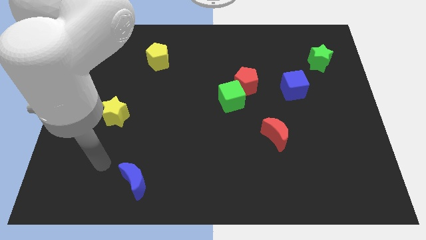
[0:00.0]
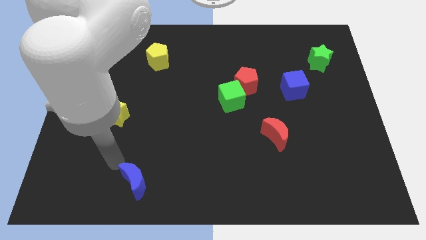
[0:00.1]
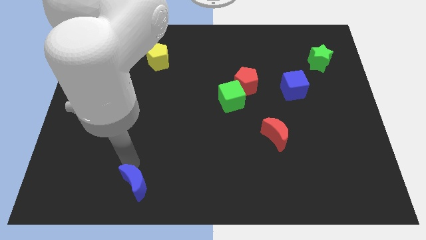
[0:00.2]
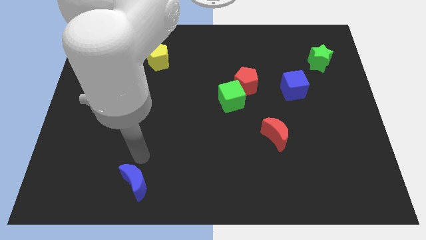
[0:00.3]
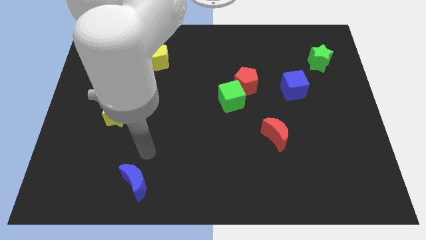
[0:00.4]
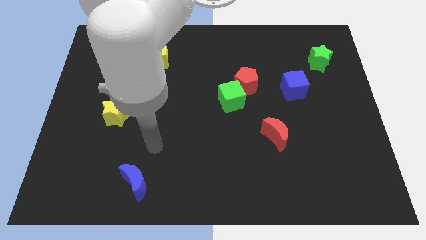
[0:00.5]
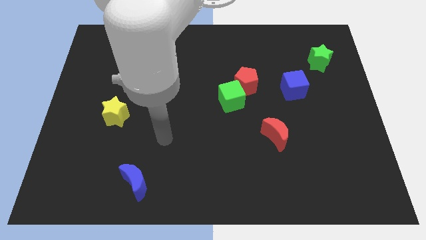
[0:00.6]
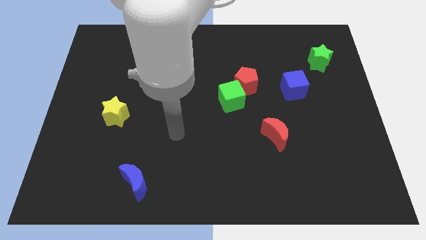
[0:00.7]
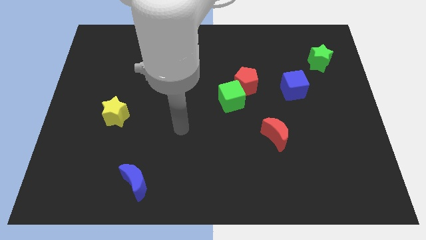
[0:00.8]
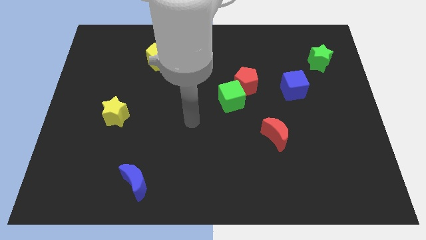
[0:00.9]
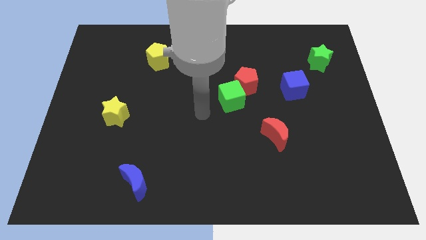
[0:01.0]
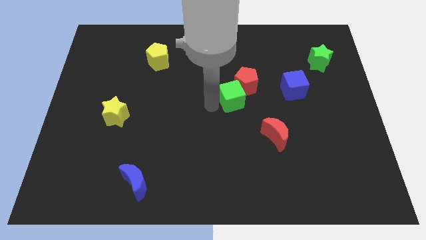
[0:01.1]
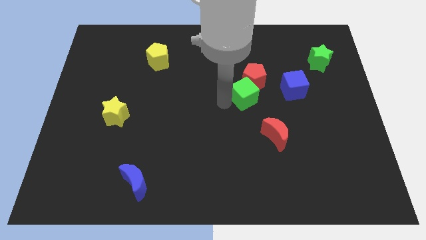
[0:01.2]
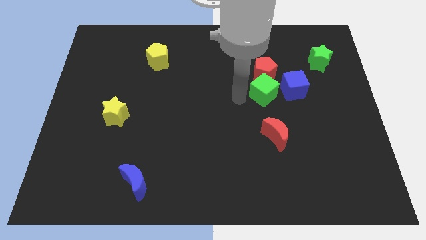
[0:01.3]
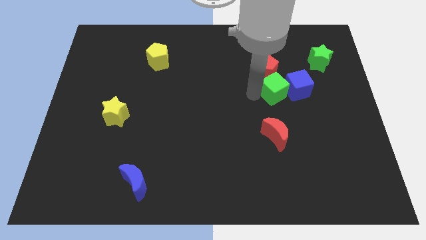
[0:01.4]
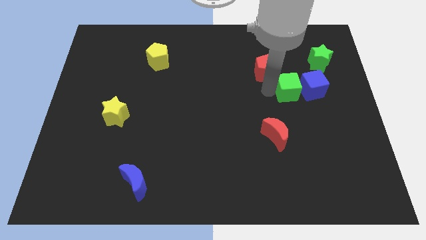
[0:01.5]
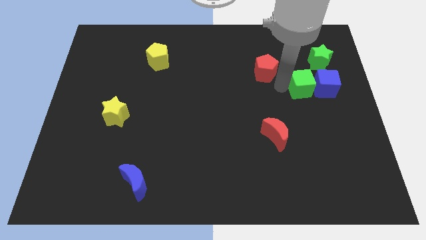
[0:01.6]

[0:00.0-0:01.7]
move the red pentagon away from the green cube

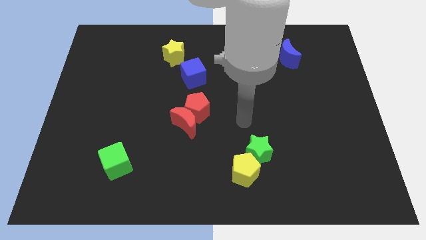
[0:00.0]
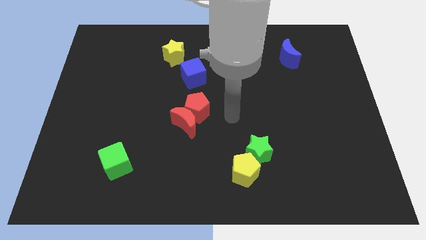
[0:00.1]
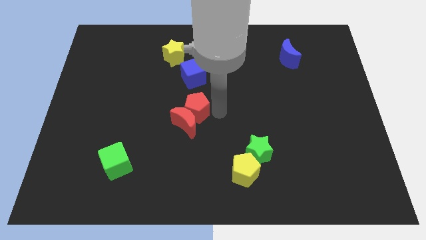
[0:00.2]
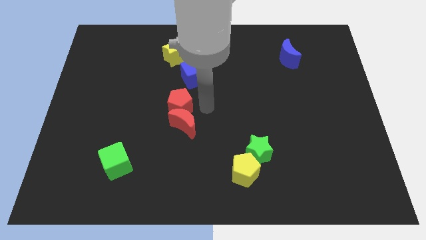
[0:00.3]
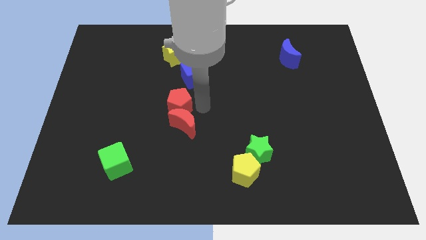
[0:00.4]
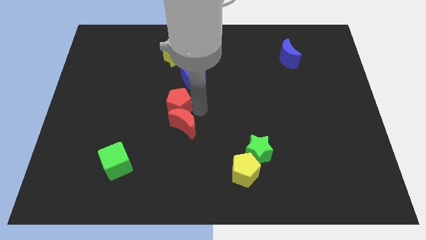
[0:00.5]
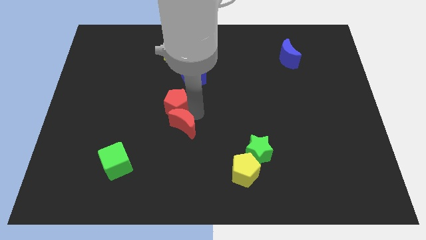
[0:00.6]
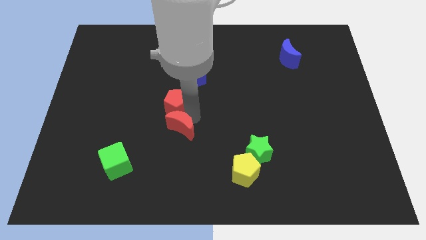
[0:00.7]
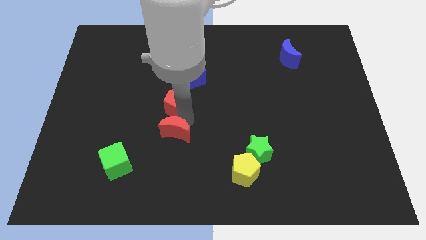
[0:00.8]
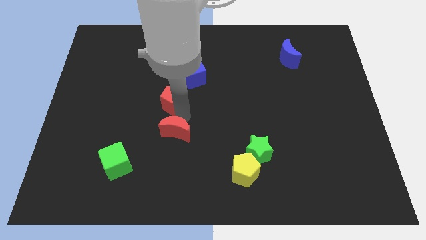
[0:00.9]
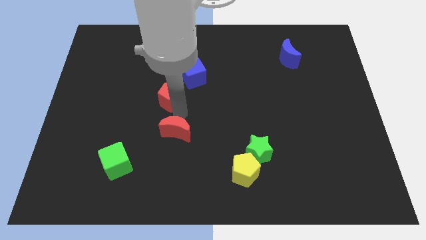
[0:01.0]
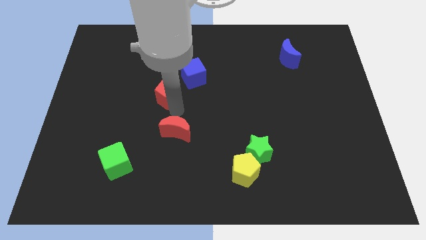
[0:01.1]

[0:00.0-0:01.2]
move the red moon away from the red pentagon

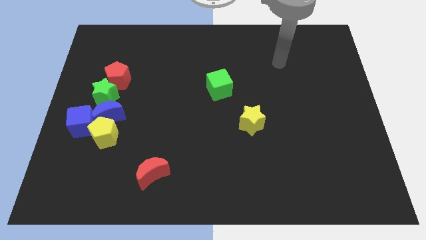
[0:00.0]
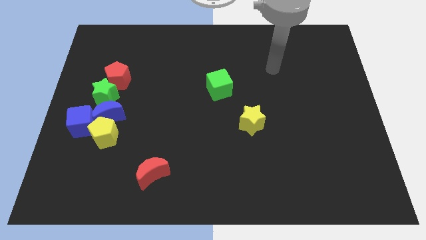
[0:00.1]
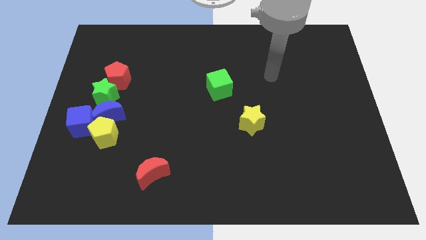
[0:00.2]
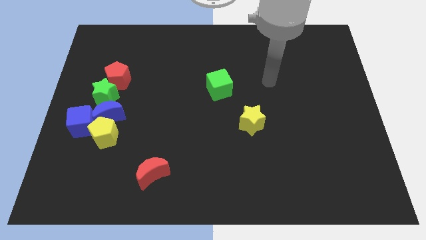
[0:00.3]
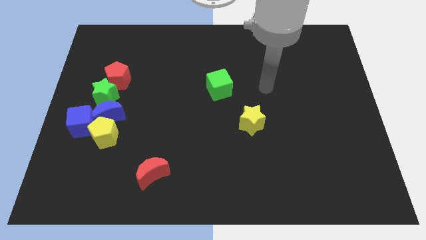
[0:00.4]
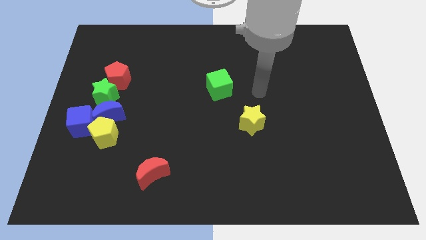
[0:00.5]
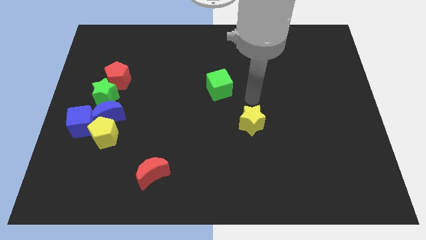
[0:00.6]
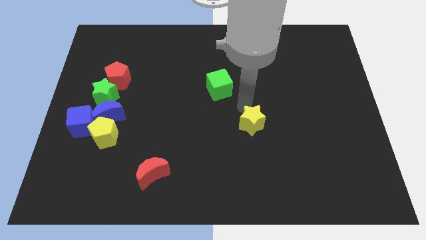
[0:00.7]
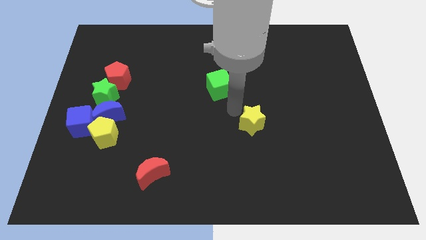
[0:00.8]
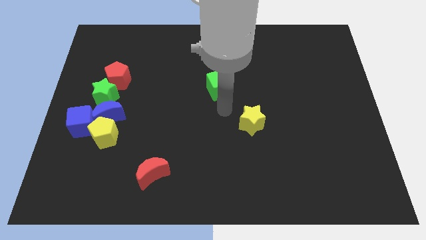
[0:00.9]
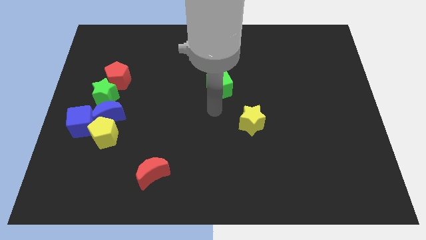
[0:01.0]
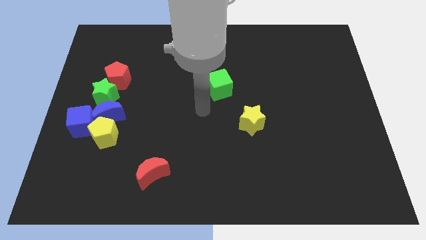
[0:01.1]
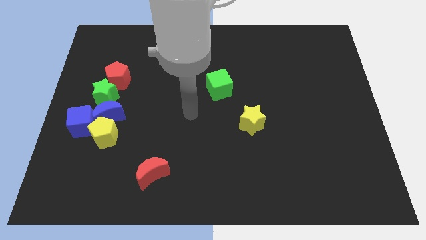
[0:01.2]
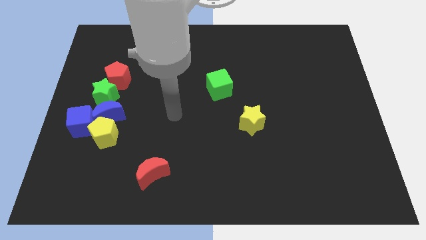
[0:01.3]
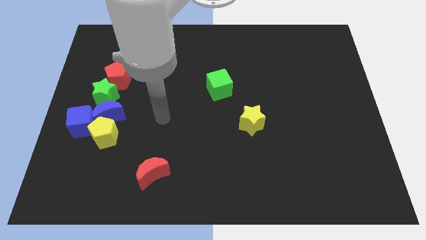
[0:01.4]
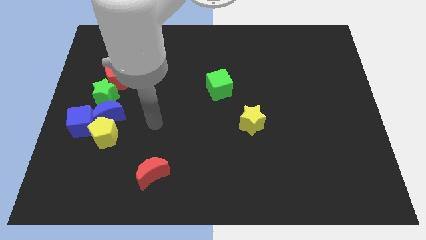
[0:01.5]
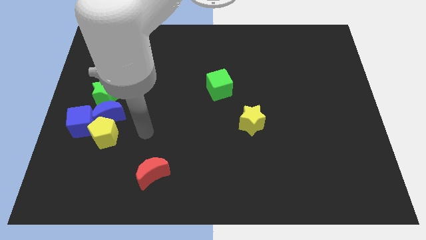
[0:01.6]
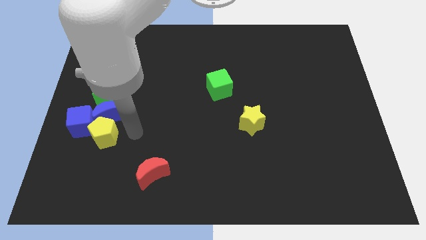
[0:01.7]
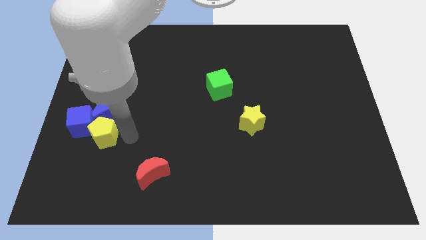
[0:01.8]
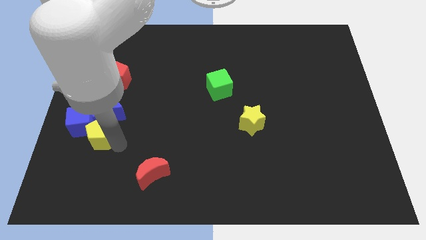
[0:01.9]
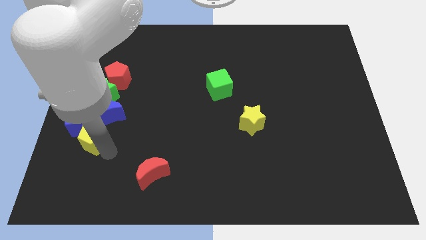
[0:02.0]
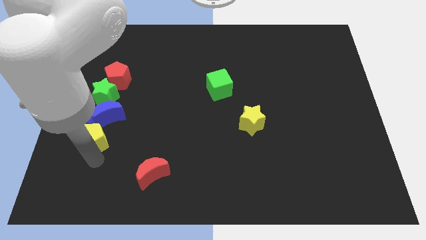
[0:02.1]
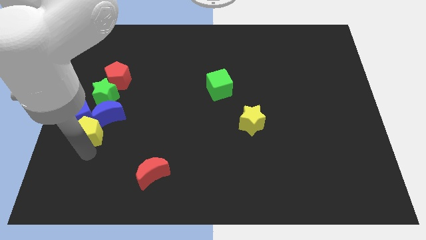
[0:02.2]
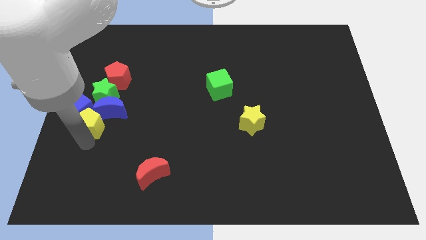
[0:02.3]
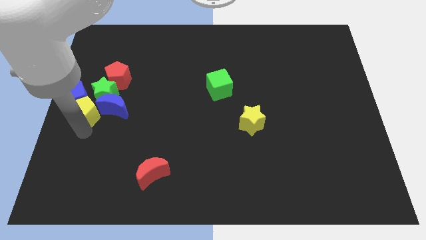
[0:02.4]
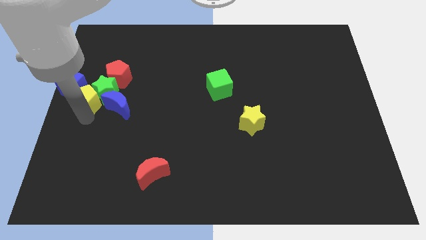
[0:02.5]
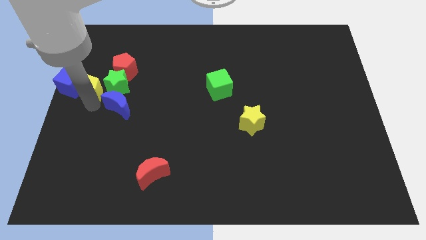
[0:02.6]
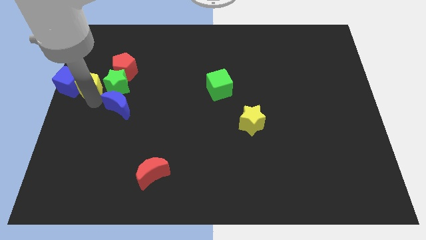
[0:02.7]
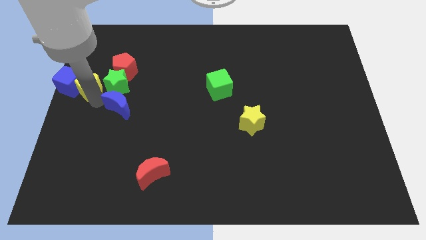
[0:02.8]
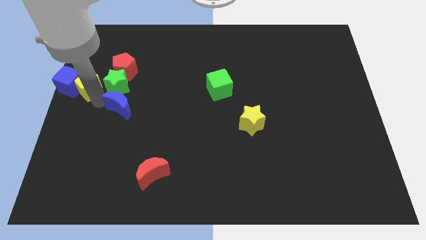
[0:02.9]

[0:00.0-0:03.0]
move the blue moon away from the group of blocks

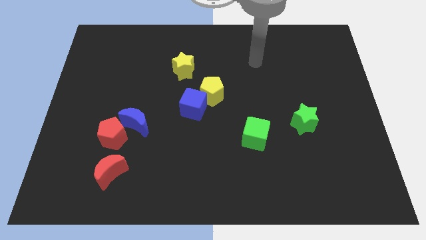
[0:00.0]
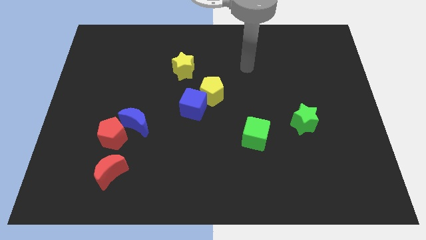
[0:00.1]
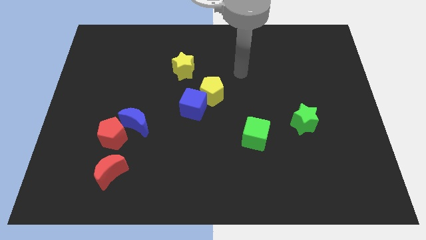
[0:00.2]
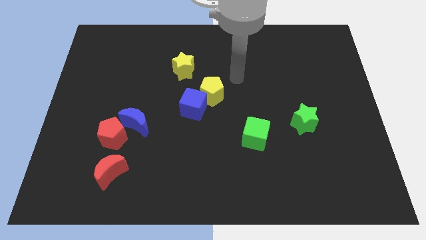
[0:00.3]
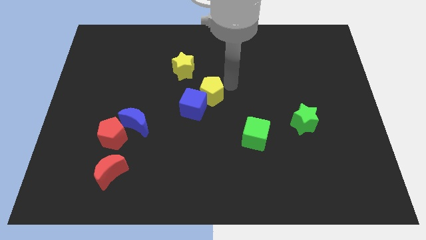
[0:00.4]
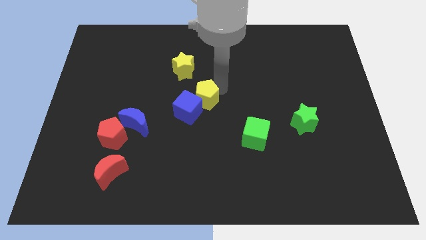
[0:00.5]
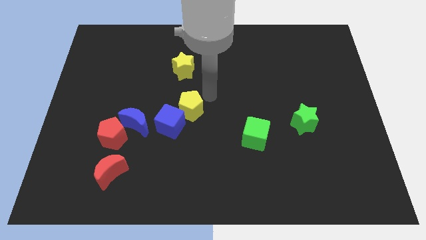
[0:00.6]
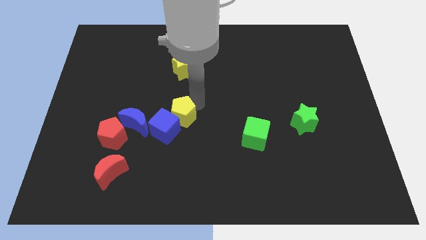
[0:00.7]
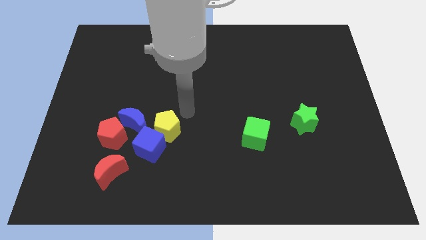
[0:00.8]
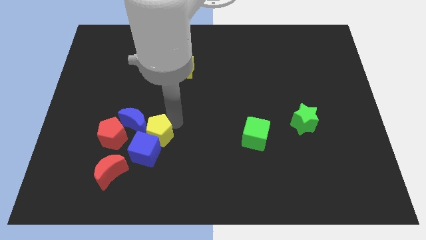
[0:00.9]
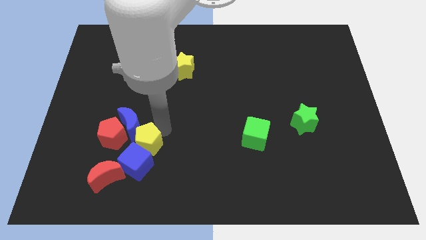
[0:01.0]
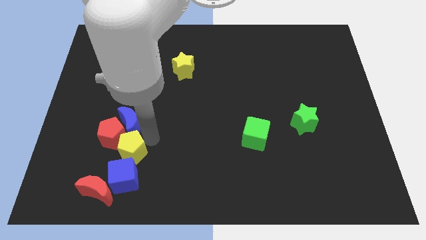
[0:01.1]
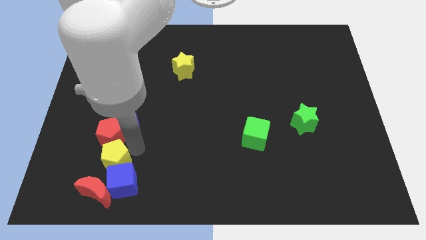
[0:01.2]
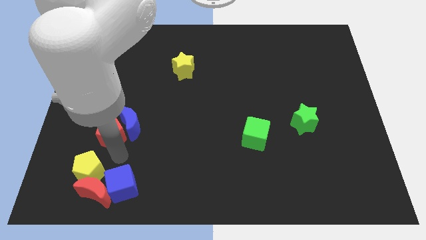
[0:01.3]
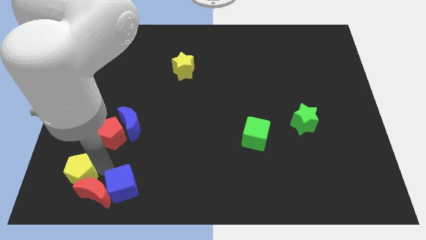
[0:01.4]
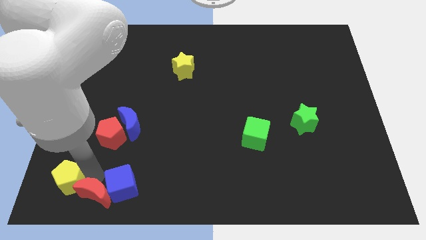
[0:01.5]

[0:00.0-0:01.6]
move the blue cube away from the yellow pentagon

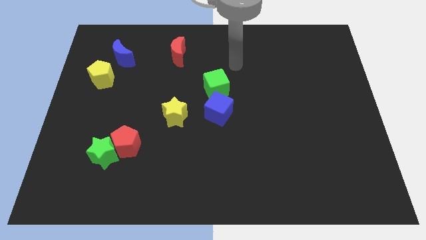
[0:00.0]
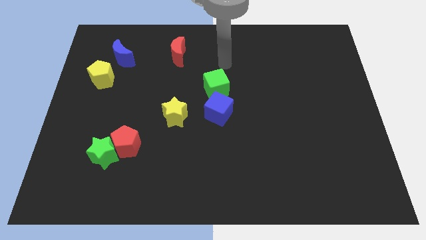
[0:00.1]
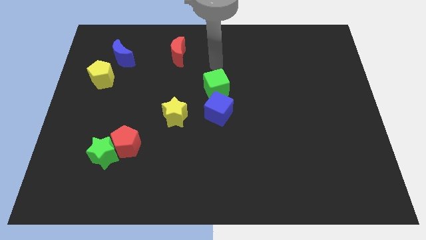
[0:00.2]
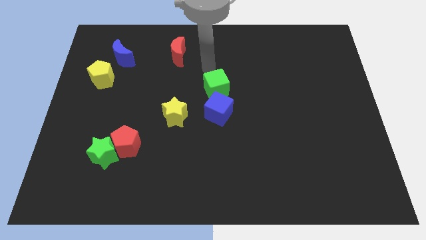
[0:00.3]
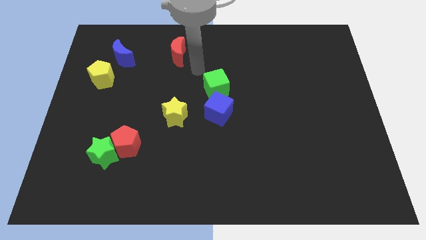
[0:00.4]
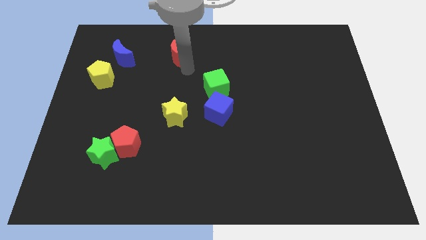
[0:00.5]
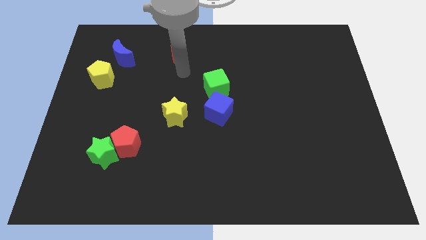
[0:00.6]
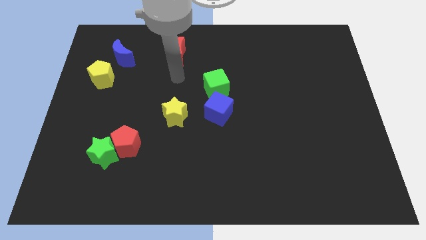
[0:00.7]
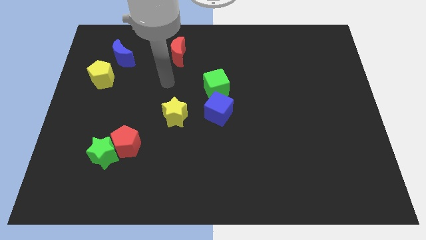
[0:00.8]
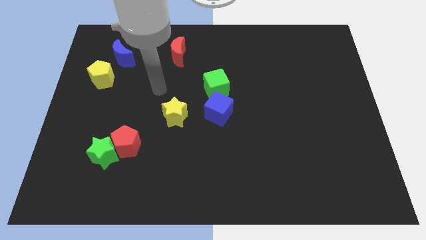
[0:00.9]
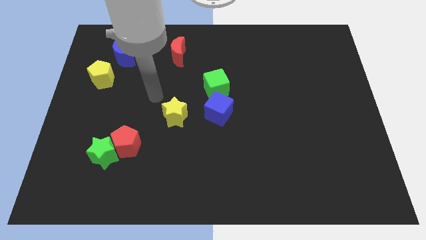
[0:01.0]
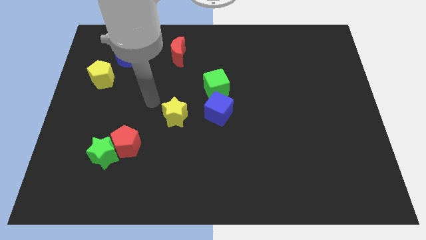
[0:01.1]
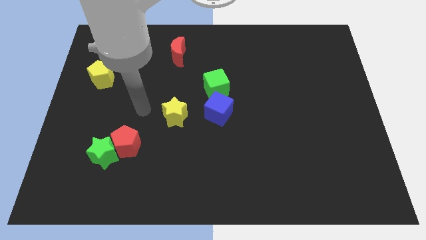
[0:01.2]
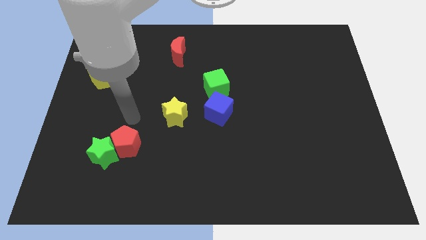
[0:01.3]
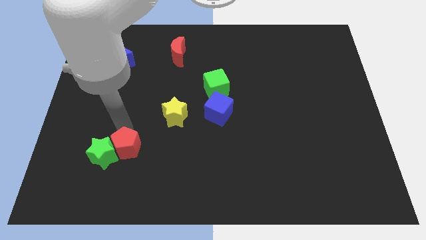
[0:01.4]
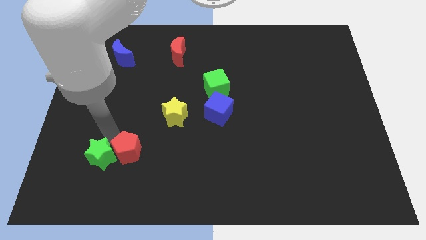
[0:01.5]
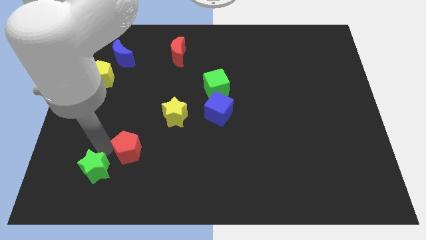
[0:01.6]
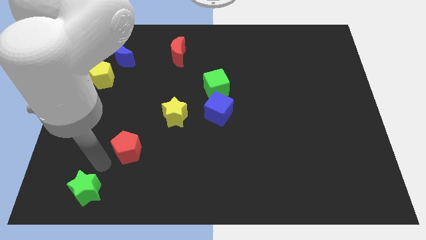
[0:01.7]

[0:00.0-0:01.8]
separate the red pentagon from the green star

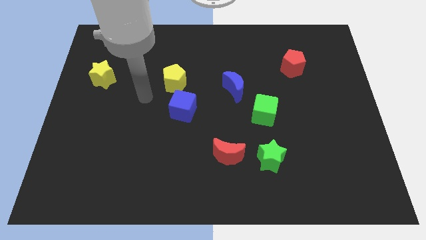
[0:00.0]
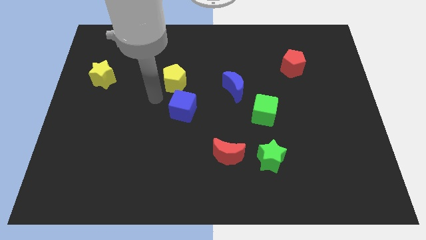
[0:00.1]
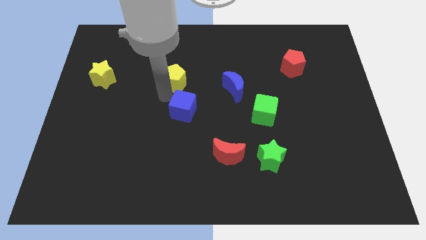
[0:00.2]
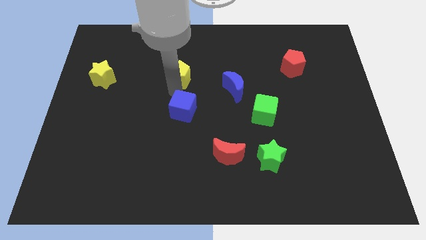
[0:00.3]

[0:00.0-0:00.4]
pull the blue cube apart from the yellow pentagon
